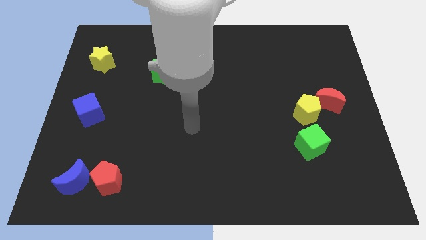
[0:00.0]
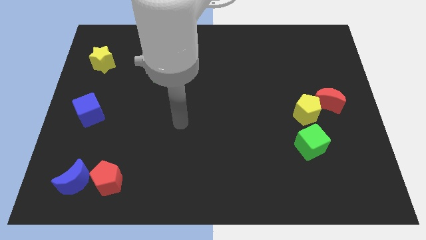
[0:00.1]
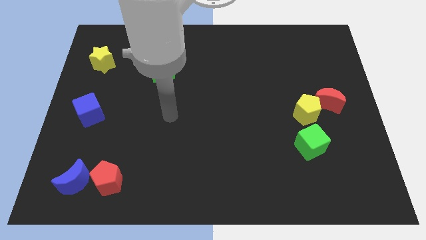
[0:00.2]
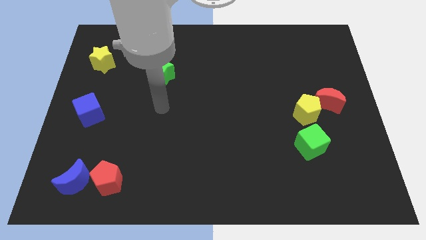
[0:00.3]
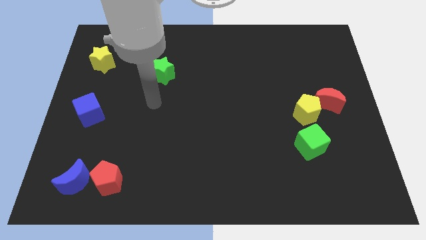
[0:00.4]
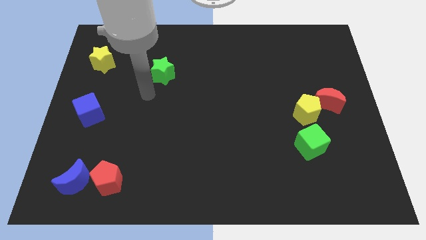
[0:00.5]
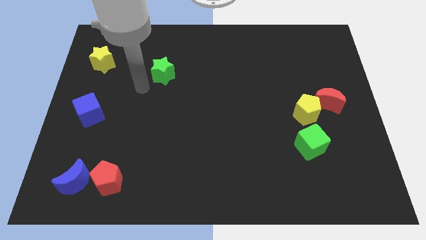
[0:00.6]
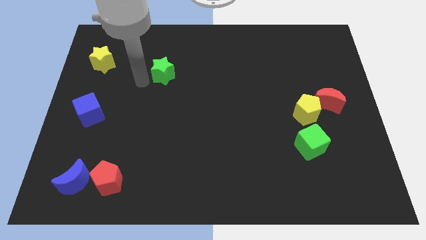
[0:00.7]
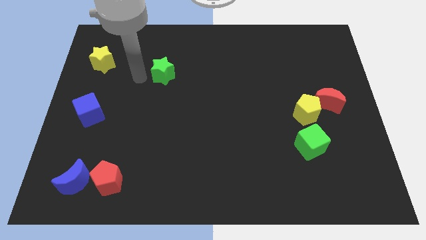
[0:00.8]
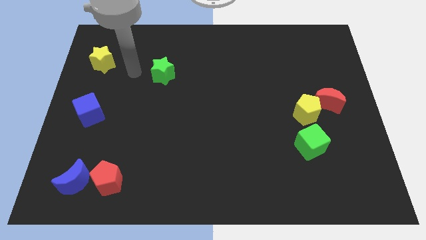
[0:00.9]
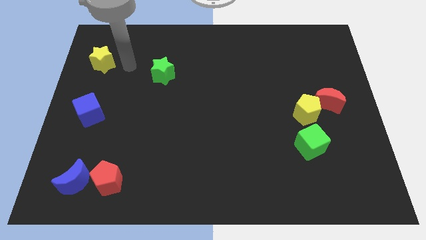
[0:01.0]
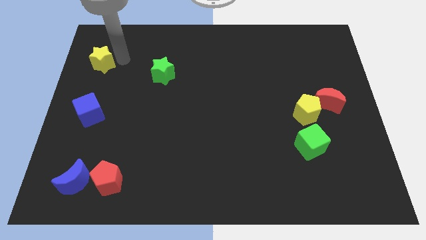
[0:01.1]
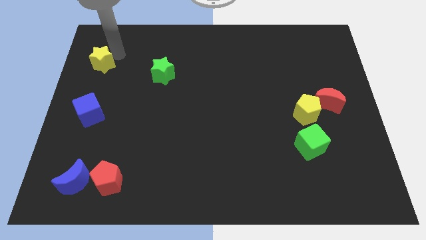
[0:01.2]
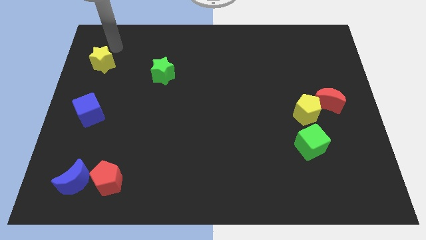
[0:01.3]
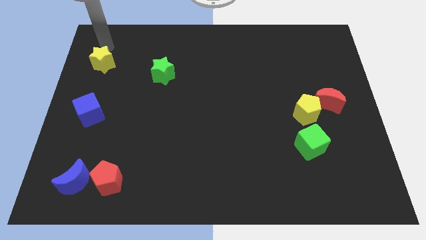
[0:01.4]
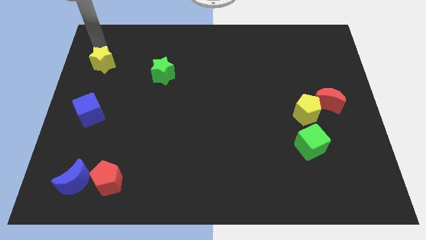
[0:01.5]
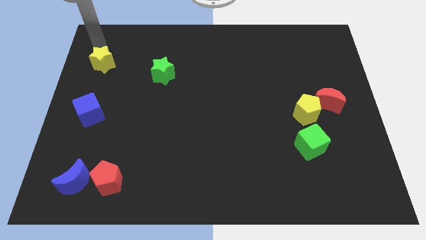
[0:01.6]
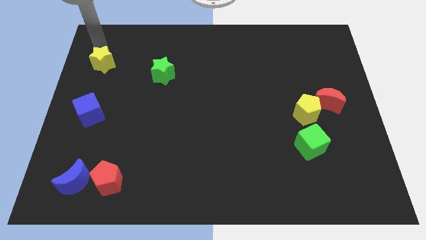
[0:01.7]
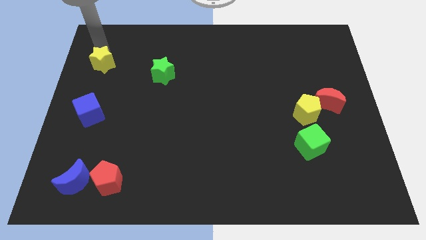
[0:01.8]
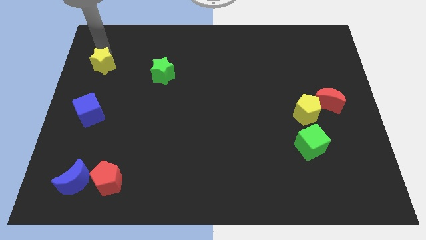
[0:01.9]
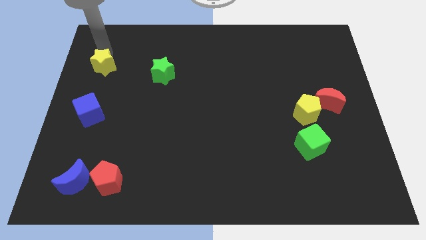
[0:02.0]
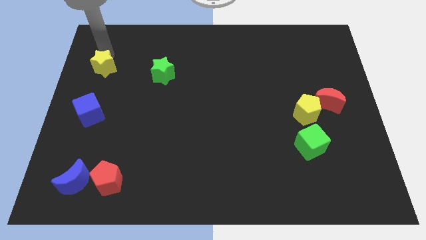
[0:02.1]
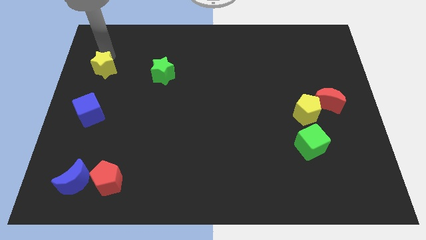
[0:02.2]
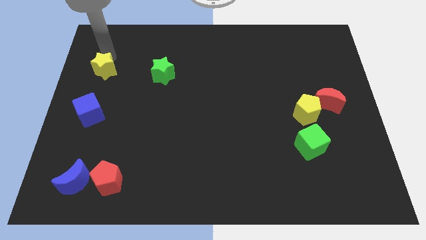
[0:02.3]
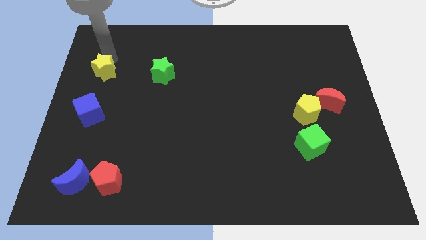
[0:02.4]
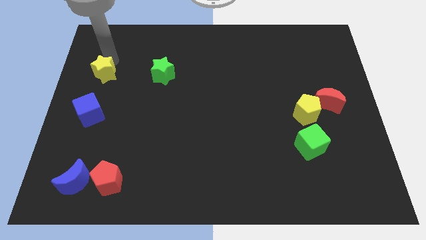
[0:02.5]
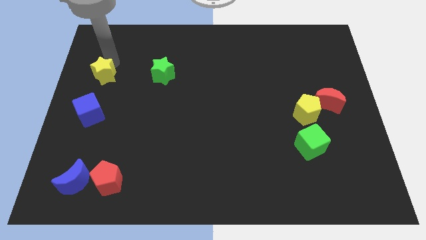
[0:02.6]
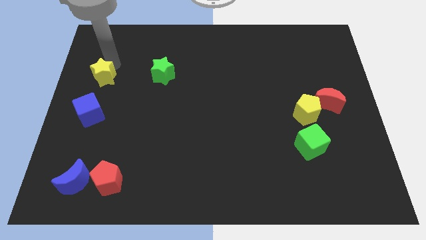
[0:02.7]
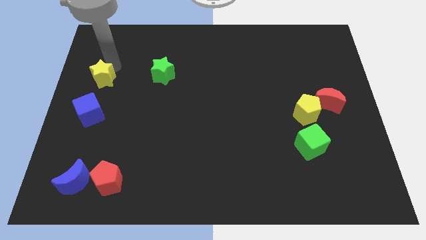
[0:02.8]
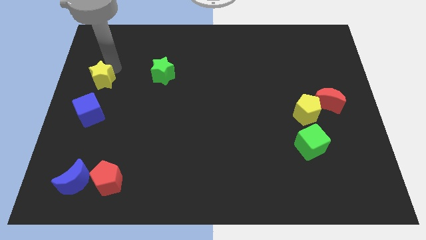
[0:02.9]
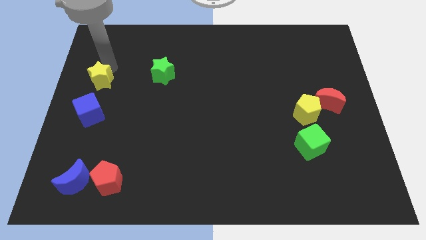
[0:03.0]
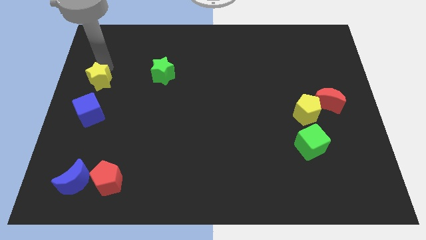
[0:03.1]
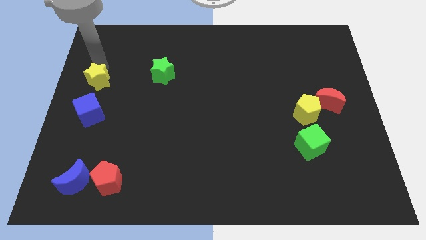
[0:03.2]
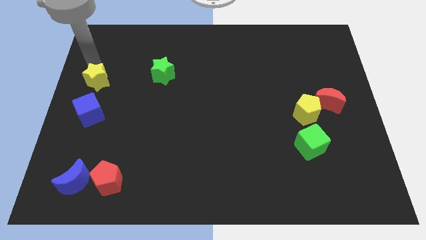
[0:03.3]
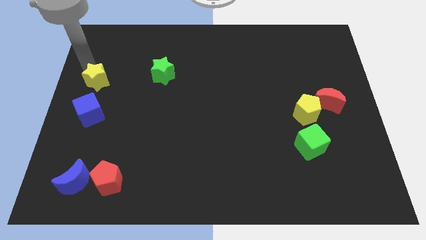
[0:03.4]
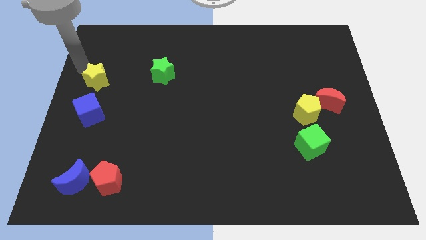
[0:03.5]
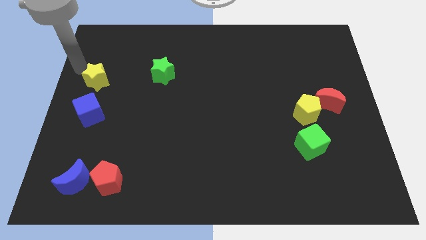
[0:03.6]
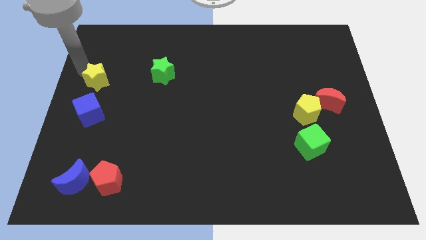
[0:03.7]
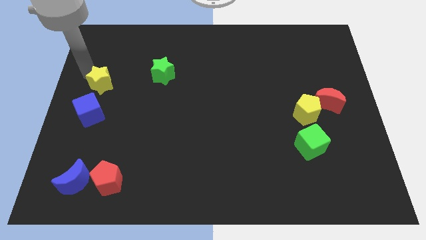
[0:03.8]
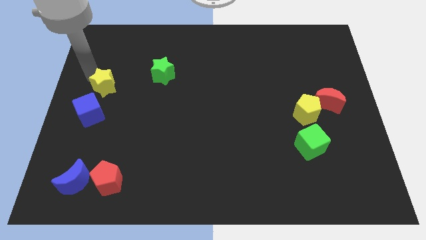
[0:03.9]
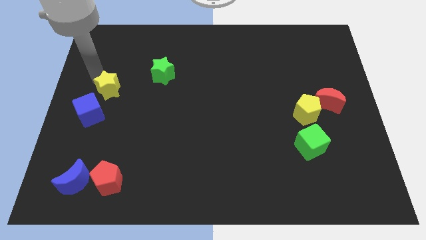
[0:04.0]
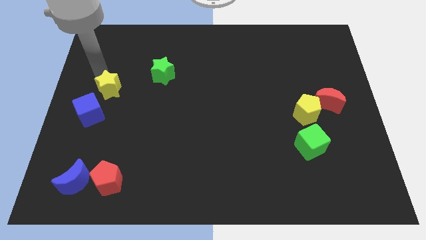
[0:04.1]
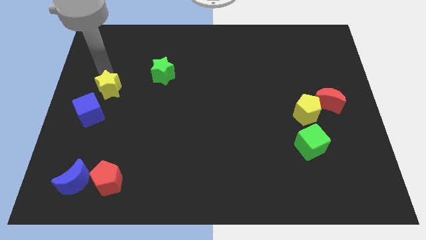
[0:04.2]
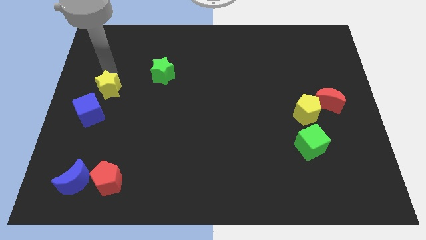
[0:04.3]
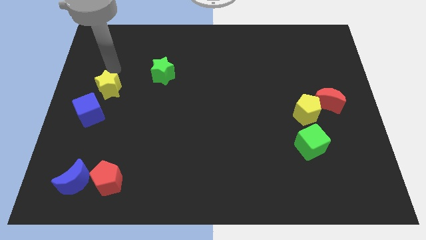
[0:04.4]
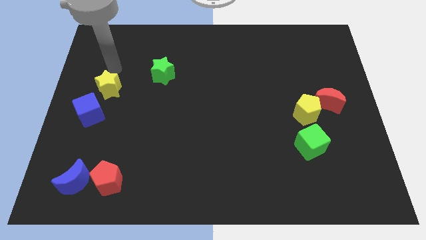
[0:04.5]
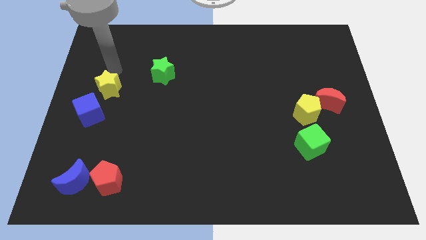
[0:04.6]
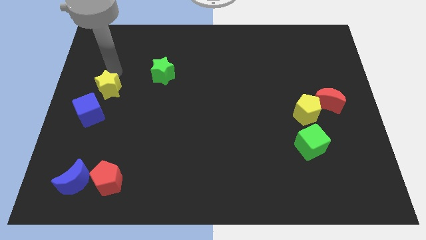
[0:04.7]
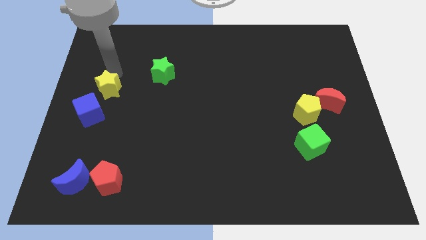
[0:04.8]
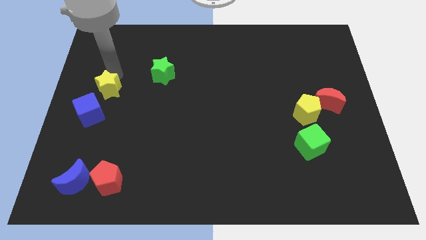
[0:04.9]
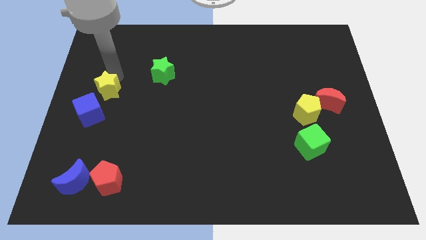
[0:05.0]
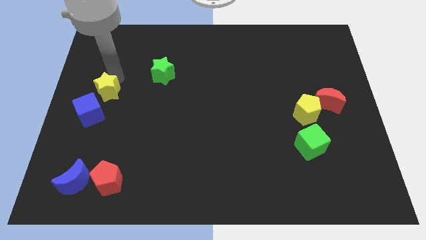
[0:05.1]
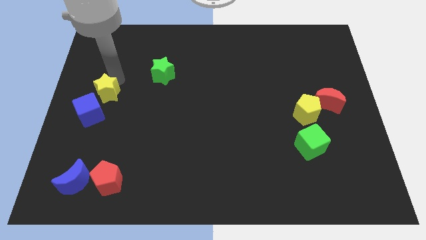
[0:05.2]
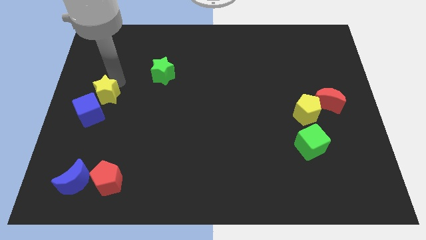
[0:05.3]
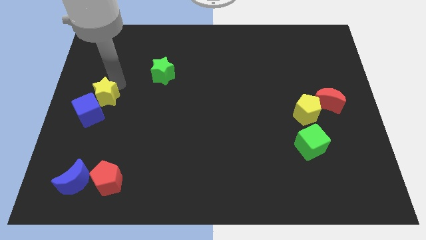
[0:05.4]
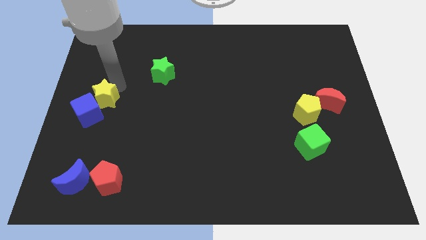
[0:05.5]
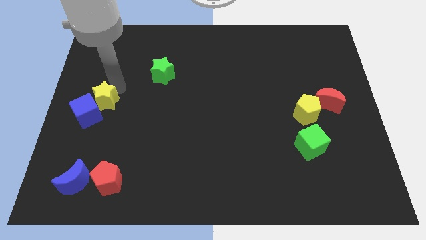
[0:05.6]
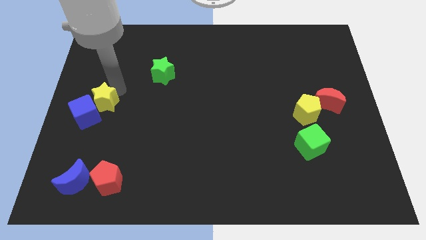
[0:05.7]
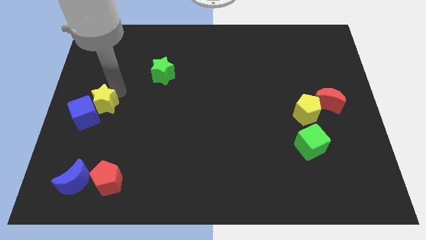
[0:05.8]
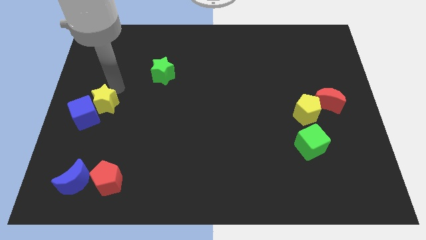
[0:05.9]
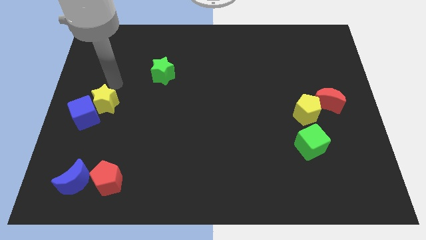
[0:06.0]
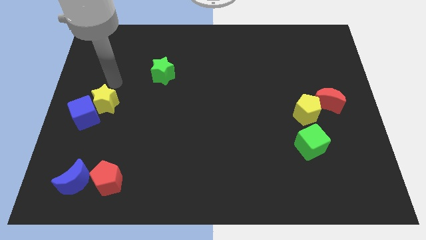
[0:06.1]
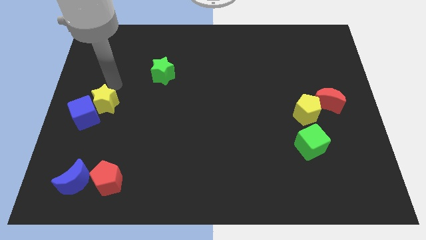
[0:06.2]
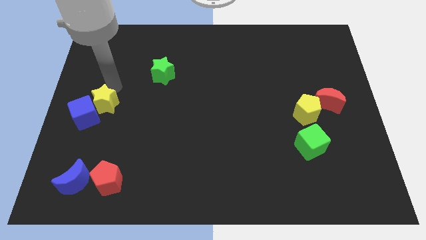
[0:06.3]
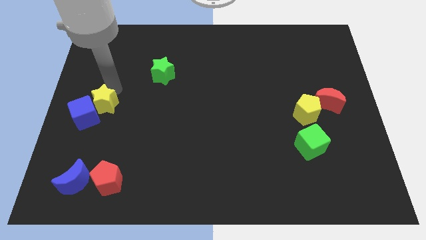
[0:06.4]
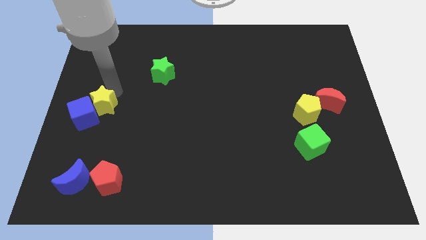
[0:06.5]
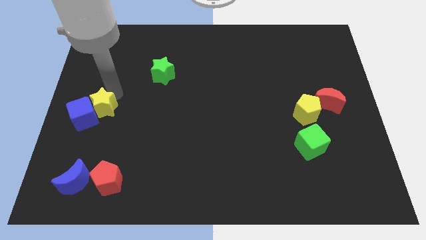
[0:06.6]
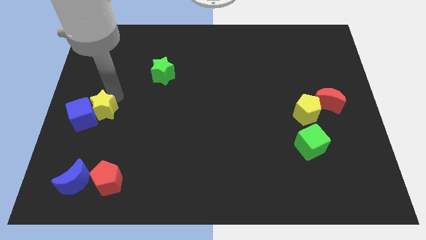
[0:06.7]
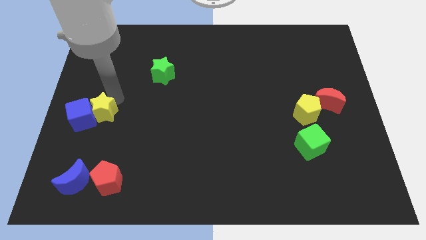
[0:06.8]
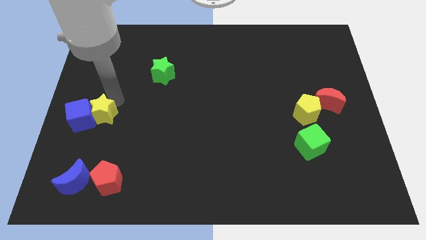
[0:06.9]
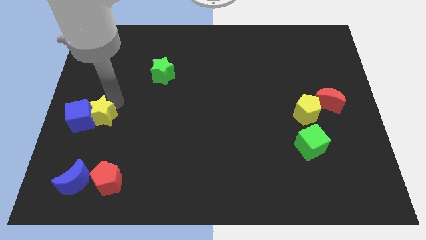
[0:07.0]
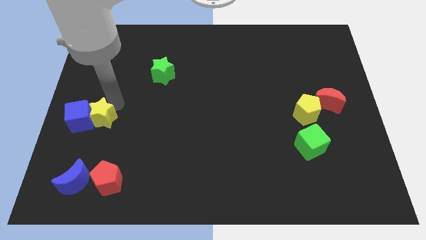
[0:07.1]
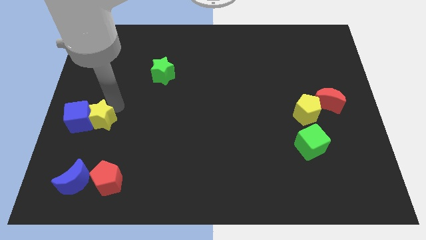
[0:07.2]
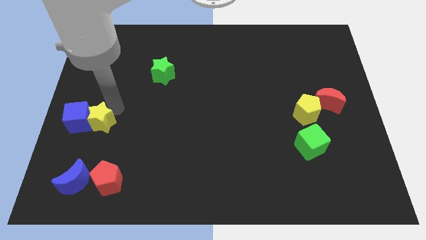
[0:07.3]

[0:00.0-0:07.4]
slide the yellow star to the top side of the blue moon
